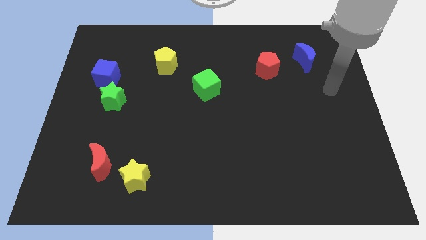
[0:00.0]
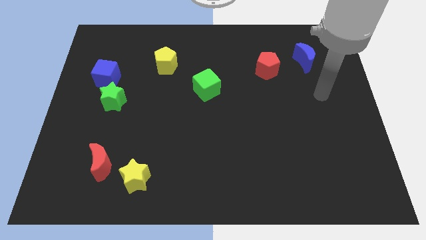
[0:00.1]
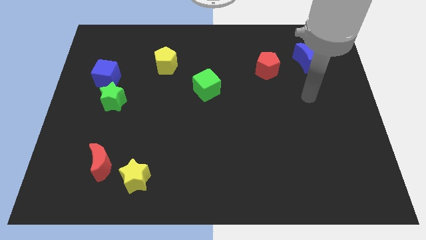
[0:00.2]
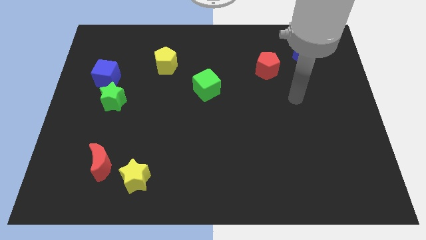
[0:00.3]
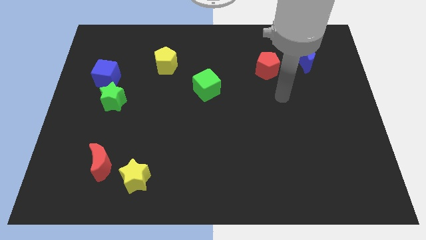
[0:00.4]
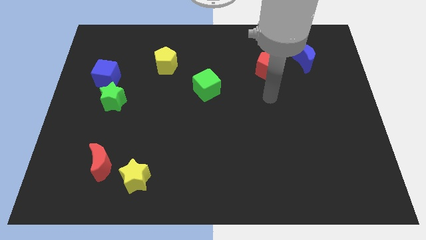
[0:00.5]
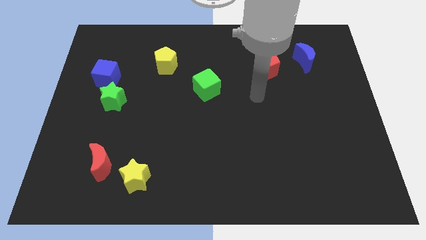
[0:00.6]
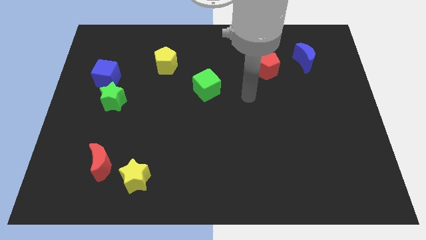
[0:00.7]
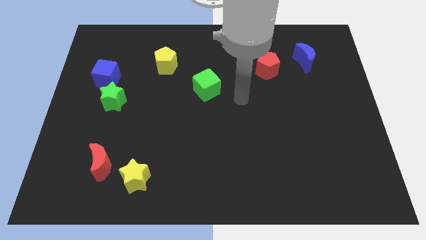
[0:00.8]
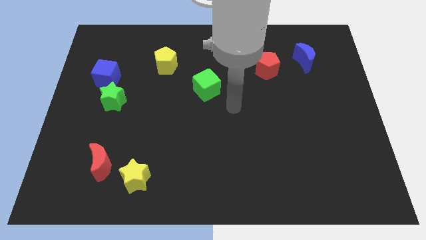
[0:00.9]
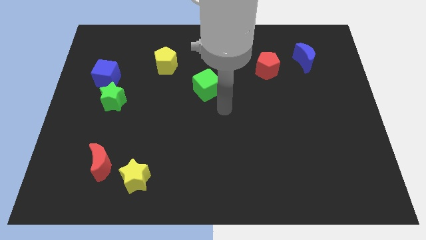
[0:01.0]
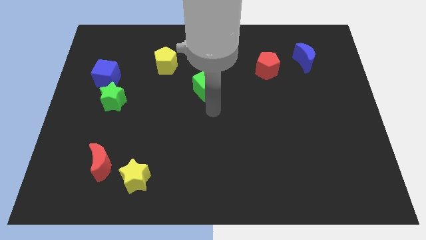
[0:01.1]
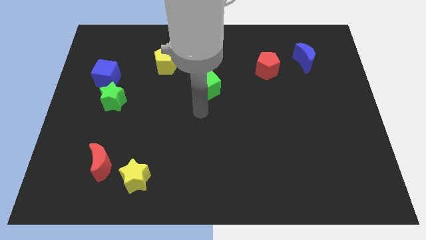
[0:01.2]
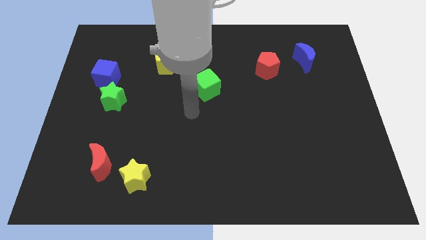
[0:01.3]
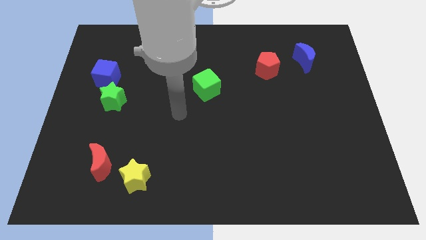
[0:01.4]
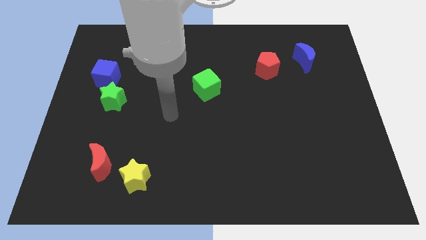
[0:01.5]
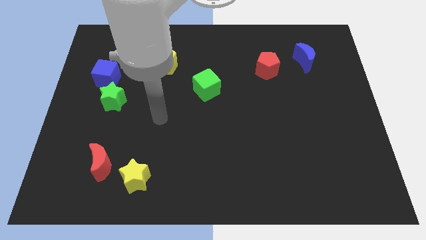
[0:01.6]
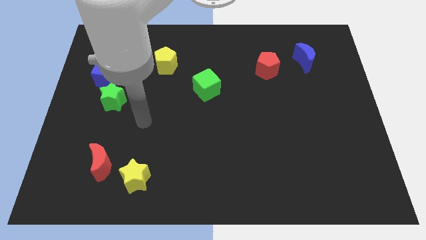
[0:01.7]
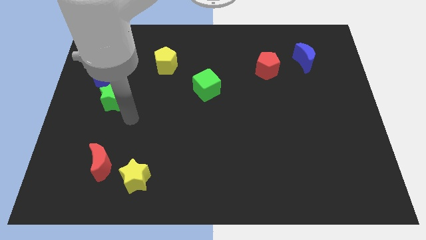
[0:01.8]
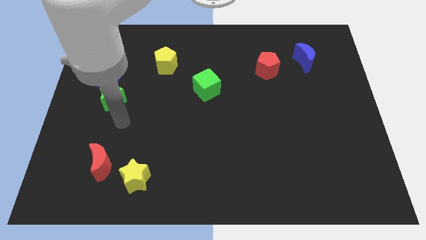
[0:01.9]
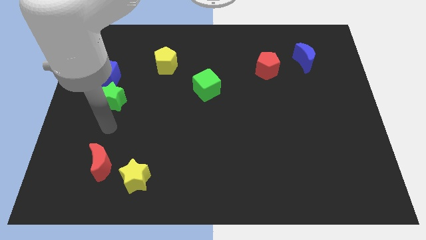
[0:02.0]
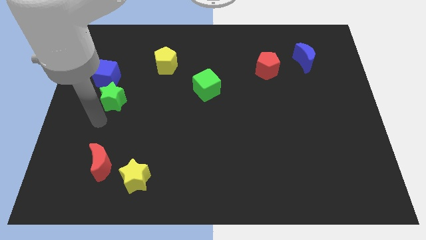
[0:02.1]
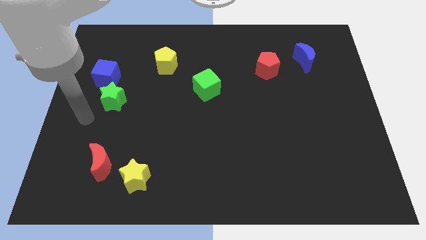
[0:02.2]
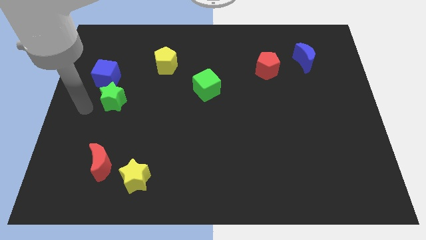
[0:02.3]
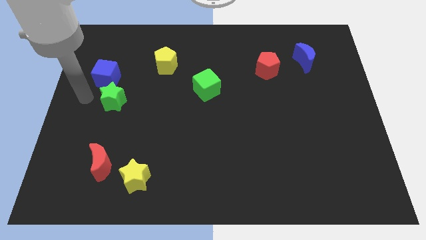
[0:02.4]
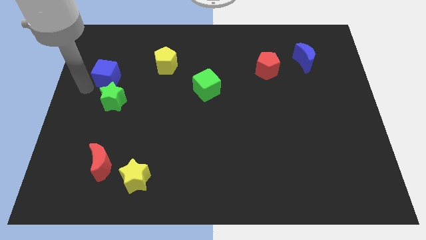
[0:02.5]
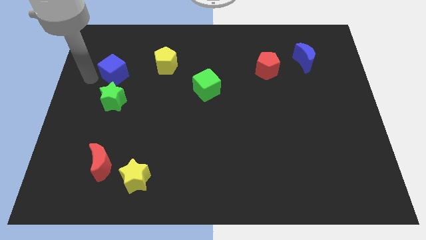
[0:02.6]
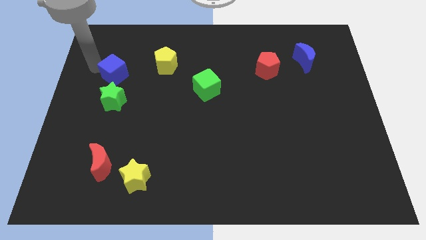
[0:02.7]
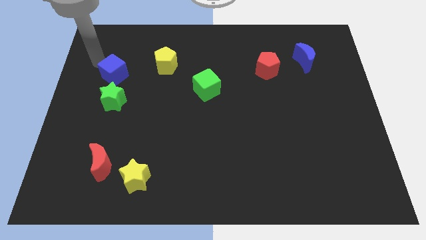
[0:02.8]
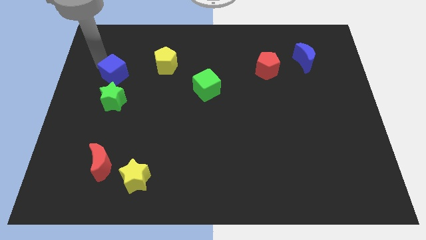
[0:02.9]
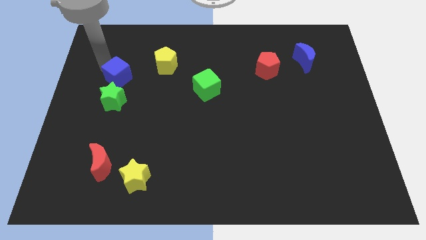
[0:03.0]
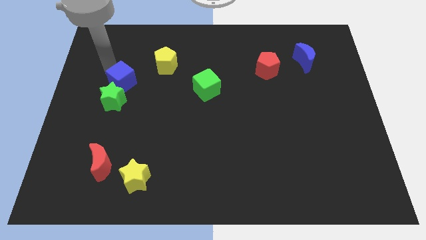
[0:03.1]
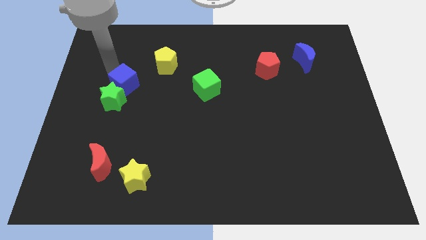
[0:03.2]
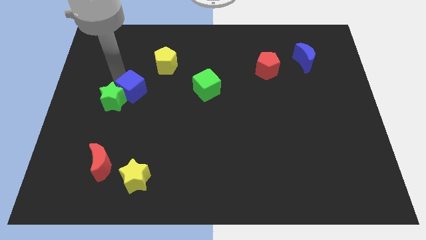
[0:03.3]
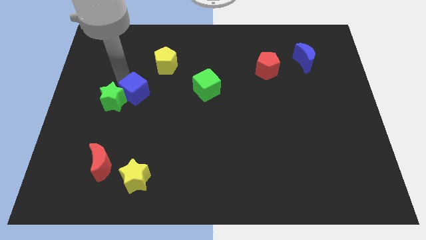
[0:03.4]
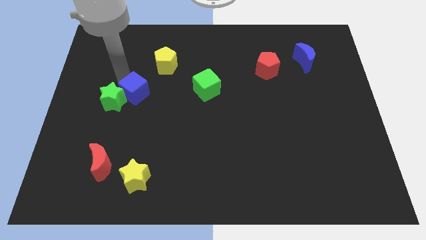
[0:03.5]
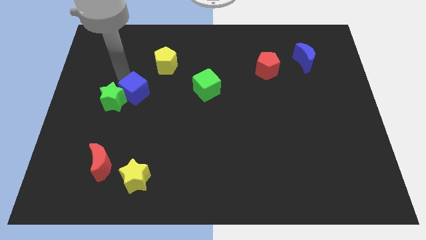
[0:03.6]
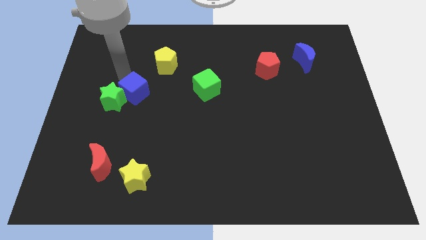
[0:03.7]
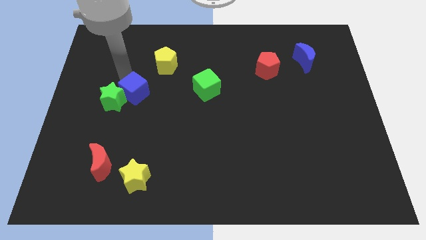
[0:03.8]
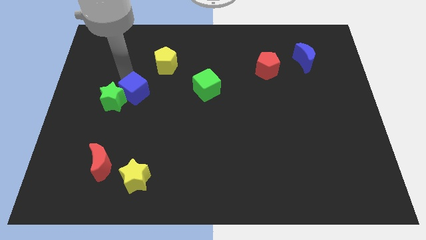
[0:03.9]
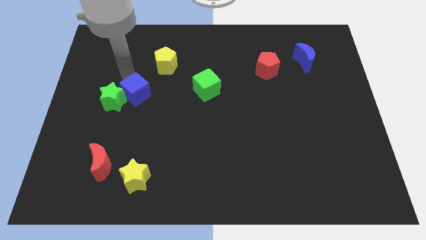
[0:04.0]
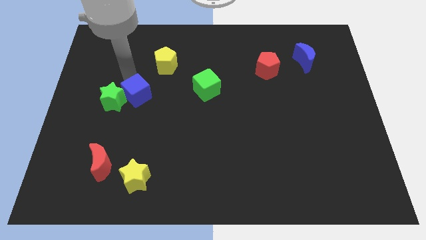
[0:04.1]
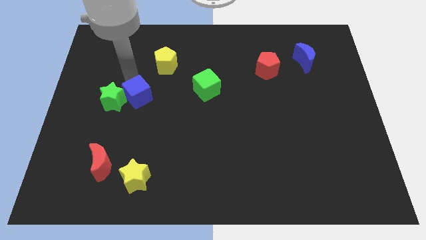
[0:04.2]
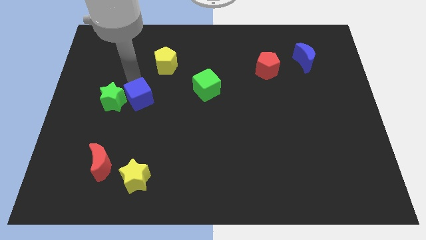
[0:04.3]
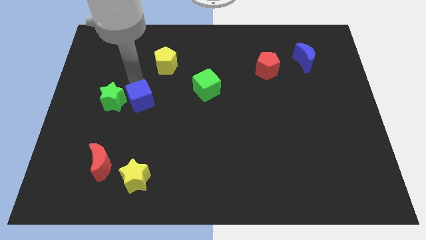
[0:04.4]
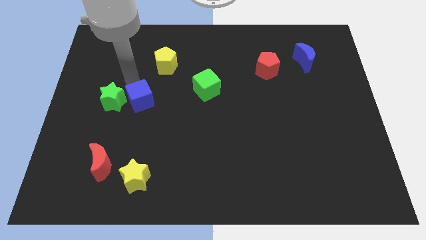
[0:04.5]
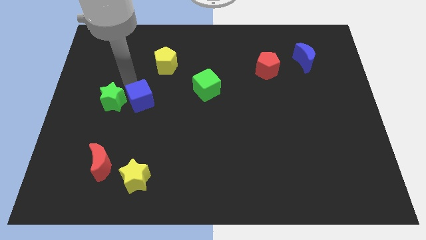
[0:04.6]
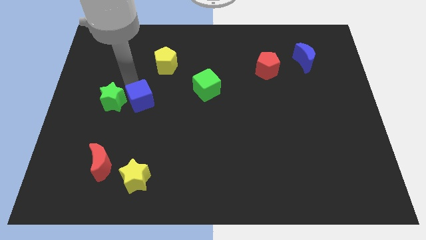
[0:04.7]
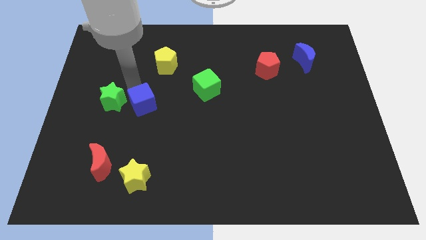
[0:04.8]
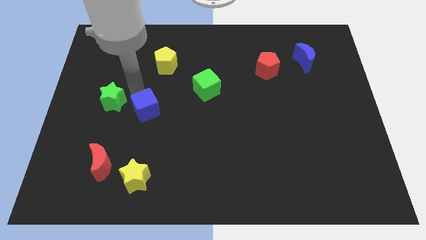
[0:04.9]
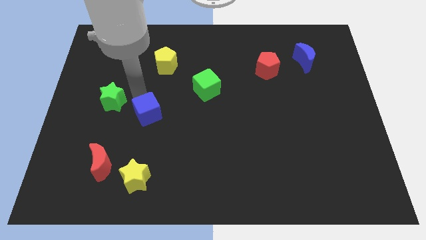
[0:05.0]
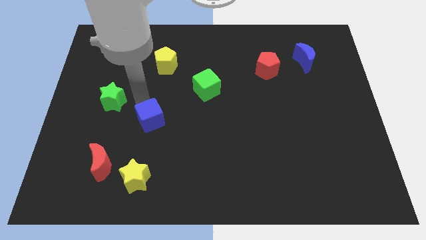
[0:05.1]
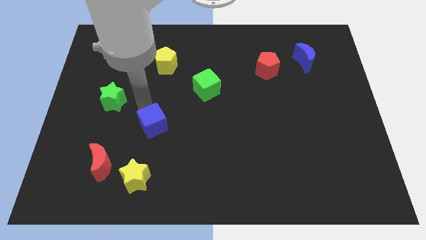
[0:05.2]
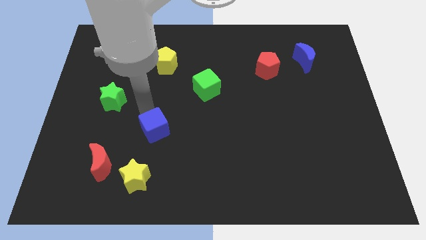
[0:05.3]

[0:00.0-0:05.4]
push the blue cube downwards and right diagonally

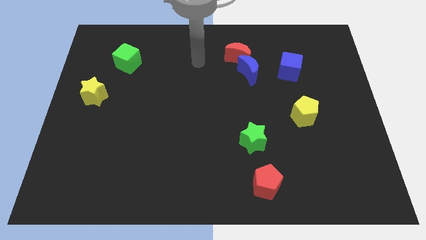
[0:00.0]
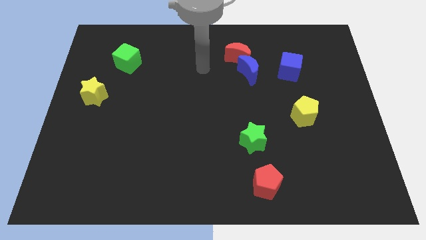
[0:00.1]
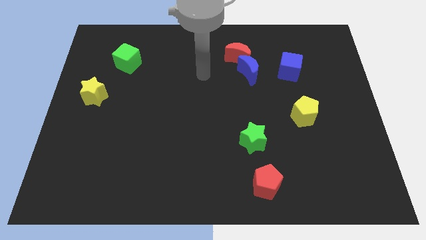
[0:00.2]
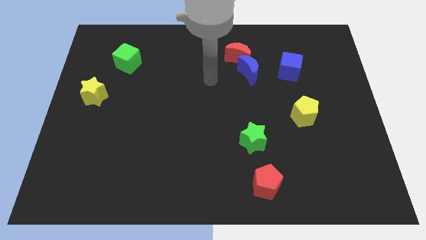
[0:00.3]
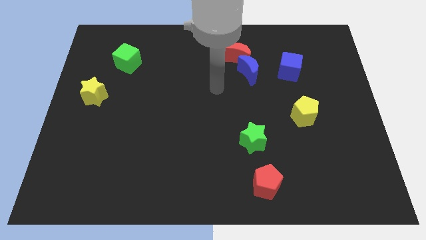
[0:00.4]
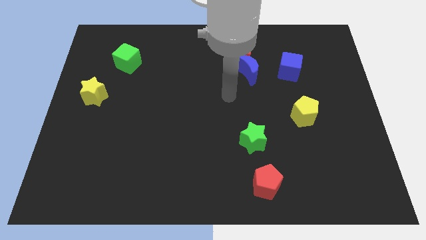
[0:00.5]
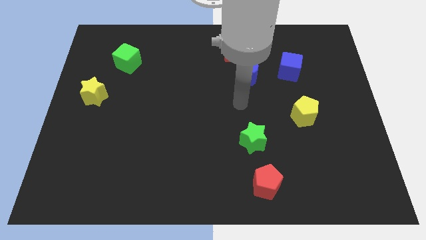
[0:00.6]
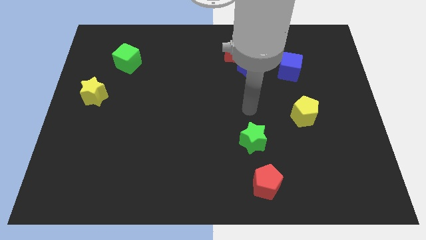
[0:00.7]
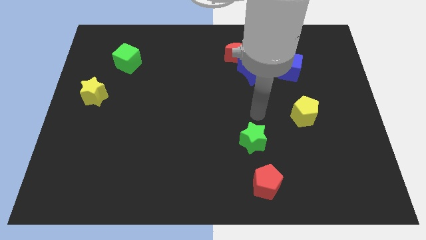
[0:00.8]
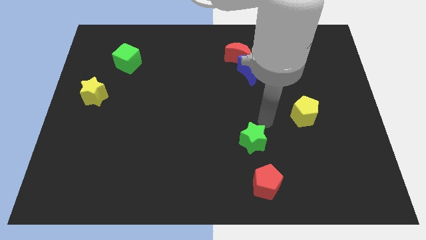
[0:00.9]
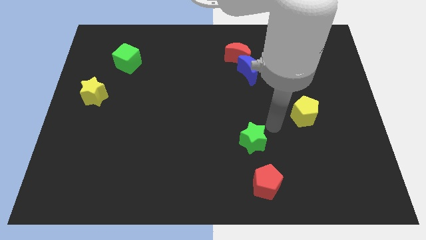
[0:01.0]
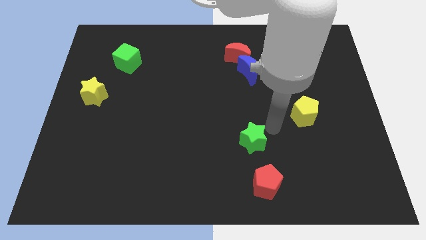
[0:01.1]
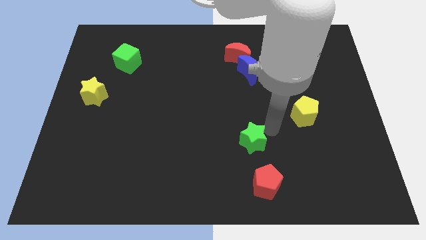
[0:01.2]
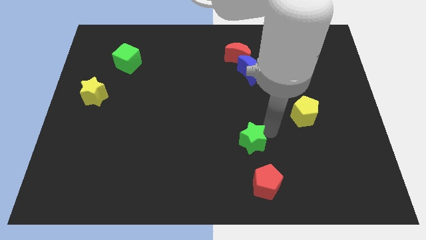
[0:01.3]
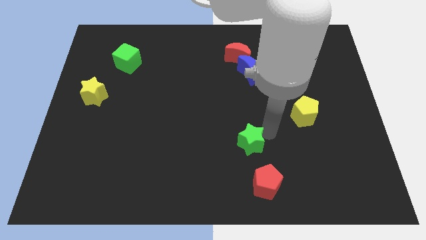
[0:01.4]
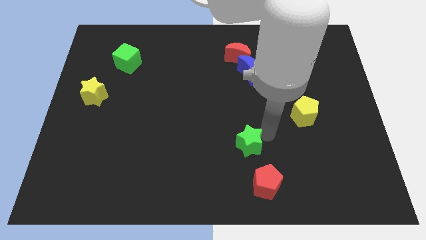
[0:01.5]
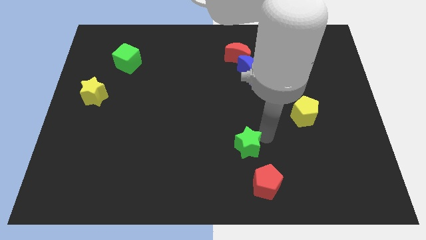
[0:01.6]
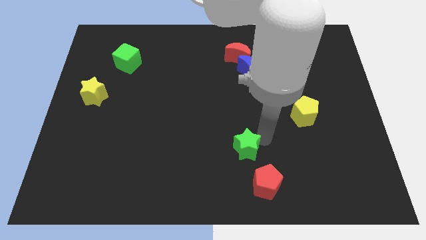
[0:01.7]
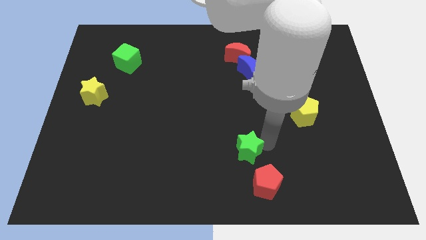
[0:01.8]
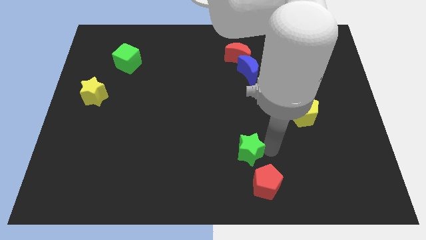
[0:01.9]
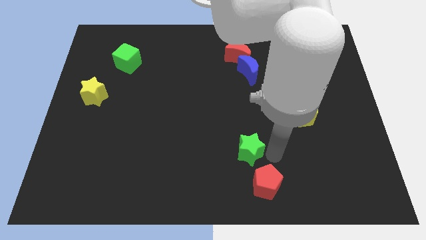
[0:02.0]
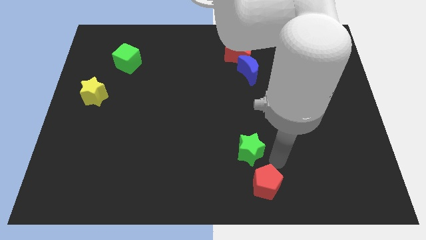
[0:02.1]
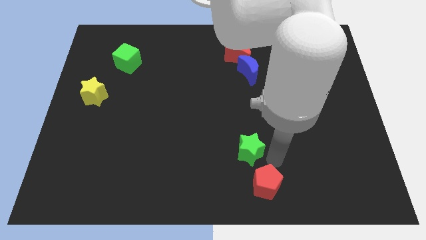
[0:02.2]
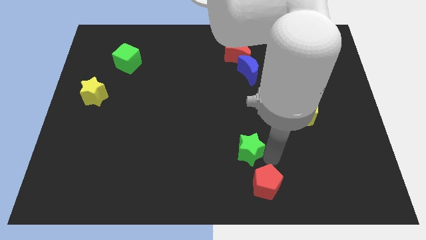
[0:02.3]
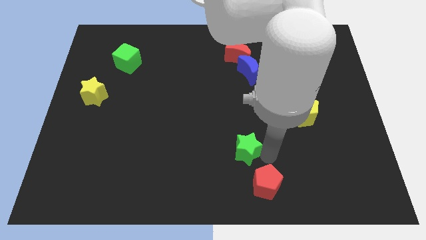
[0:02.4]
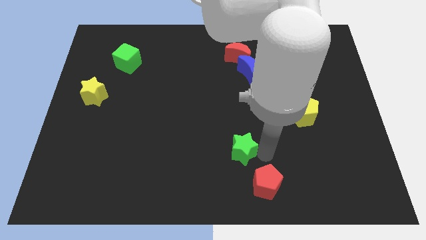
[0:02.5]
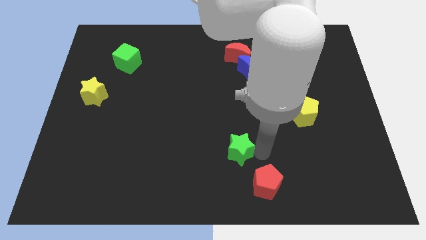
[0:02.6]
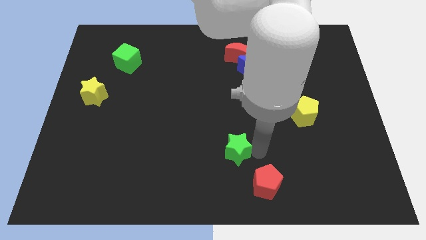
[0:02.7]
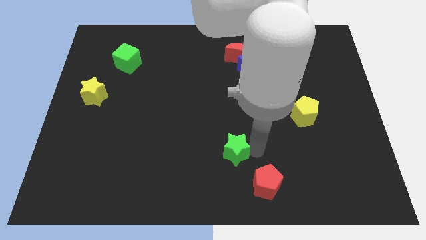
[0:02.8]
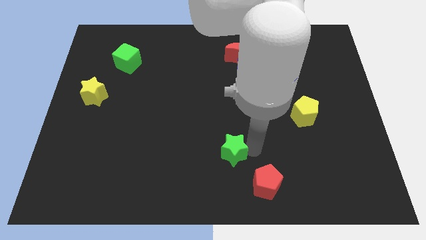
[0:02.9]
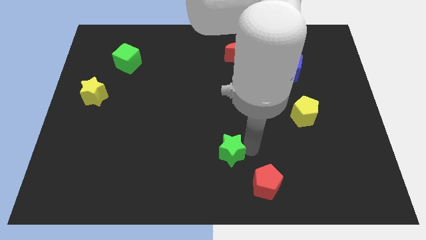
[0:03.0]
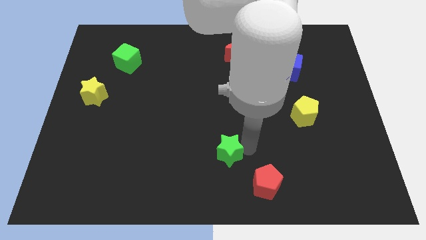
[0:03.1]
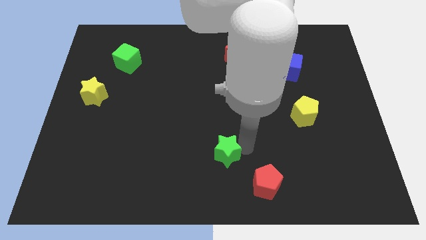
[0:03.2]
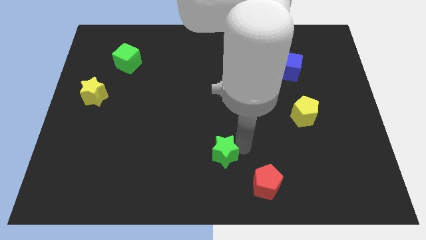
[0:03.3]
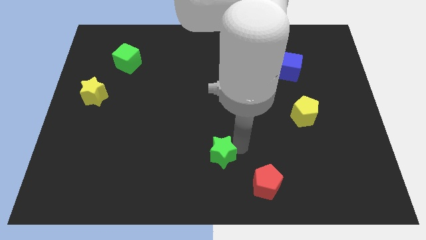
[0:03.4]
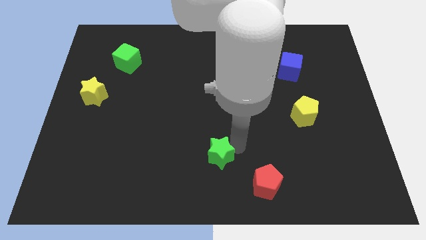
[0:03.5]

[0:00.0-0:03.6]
slightly move the green star left
